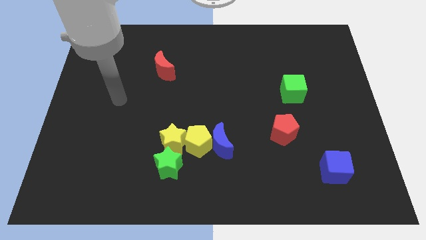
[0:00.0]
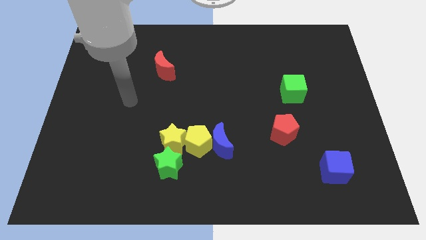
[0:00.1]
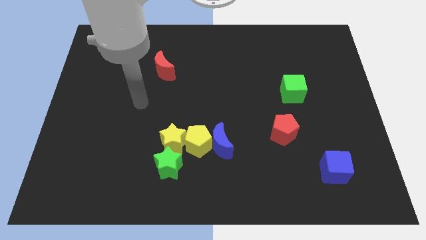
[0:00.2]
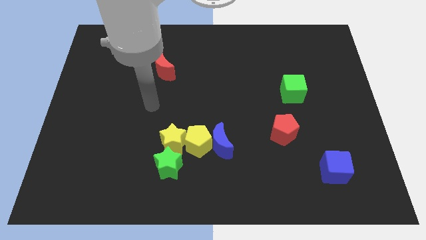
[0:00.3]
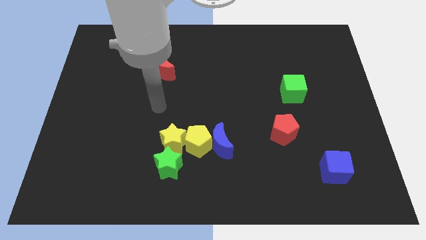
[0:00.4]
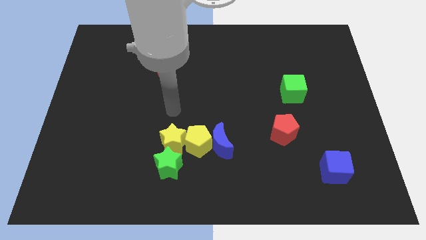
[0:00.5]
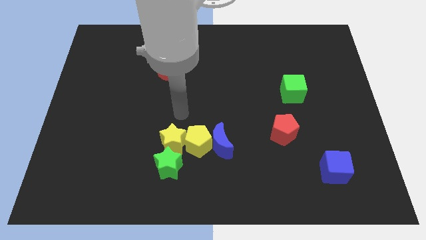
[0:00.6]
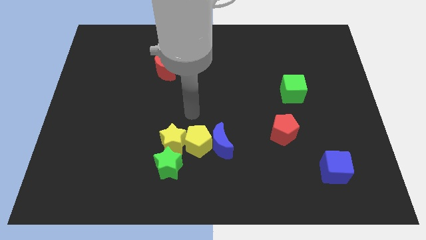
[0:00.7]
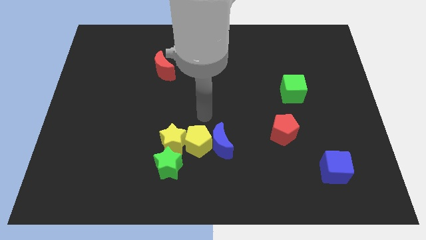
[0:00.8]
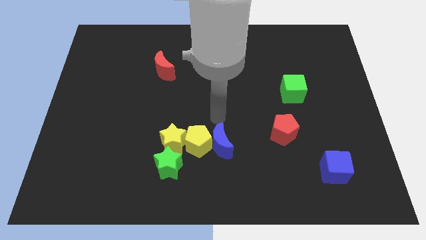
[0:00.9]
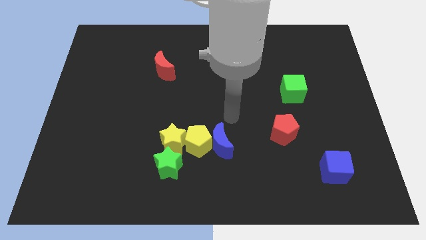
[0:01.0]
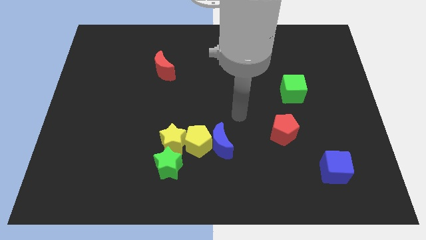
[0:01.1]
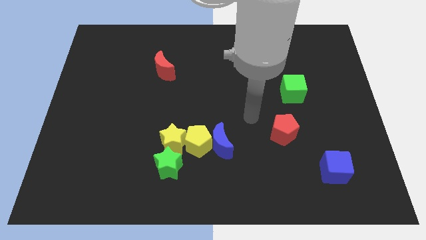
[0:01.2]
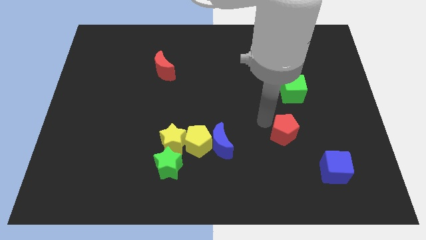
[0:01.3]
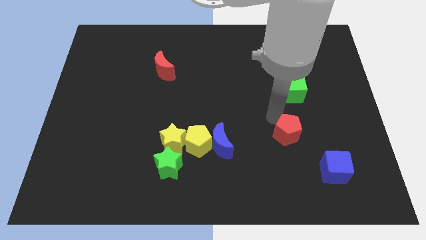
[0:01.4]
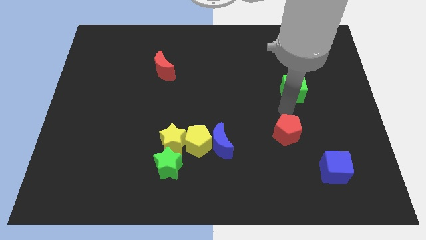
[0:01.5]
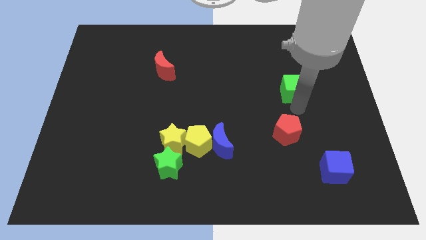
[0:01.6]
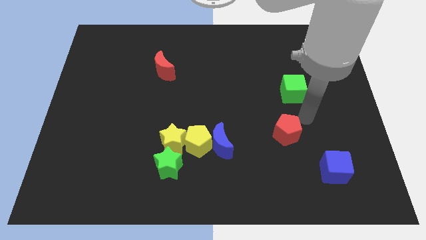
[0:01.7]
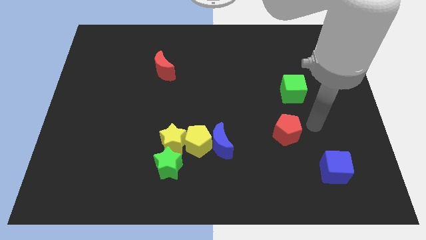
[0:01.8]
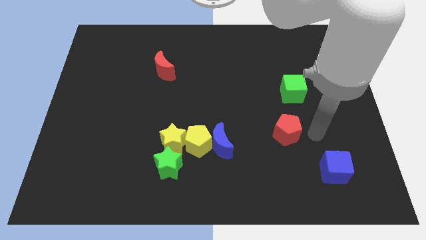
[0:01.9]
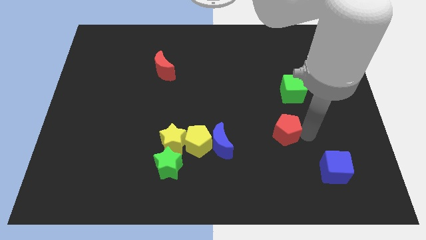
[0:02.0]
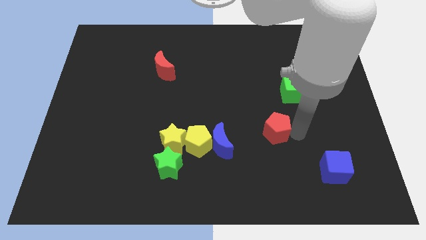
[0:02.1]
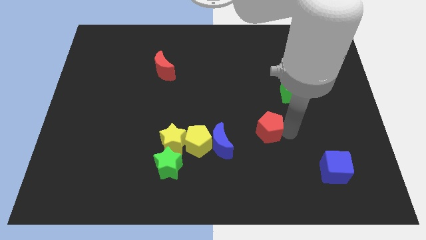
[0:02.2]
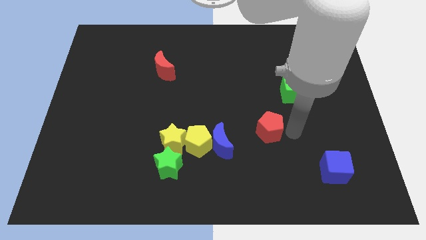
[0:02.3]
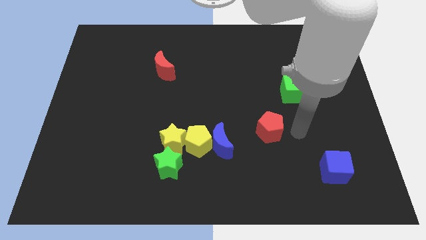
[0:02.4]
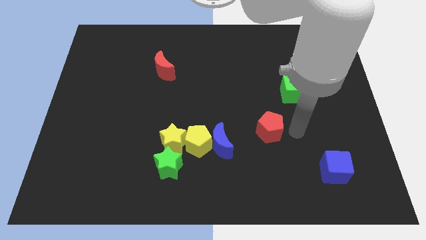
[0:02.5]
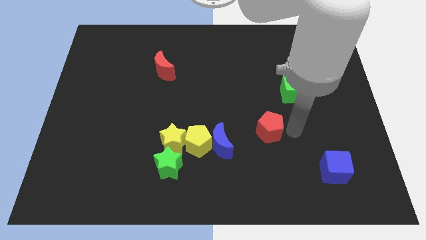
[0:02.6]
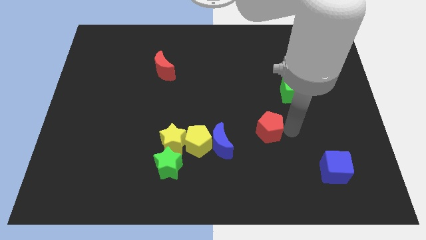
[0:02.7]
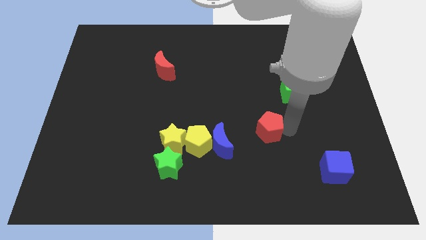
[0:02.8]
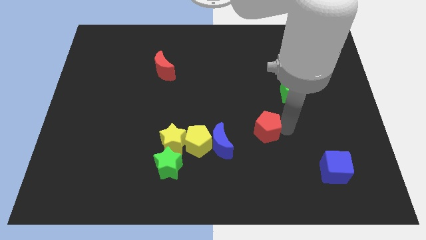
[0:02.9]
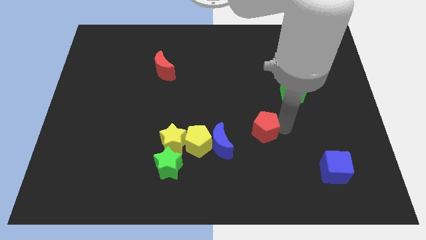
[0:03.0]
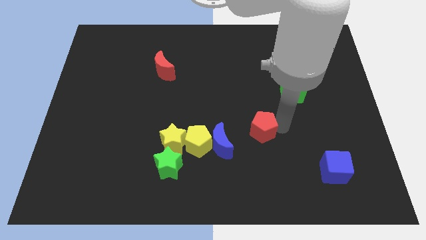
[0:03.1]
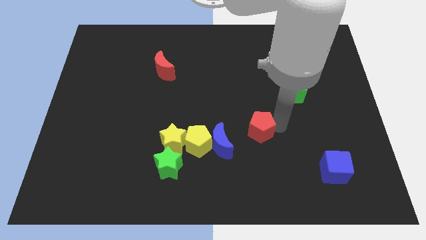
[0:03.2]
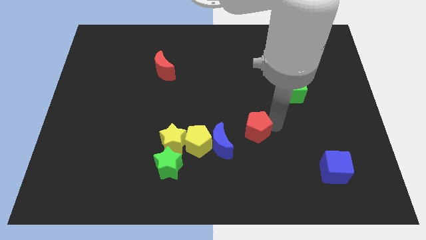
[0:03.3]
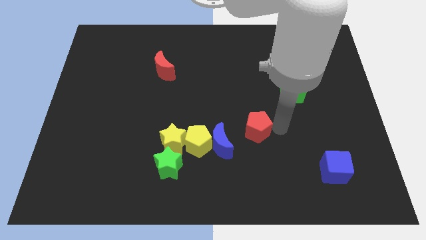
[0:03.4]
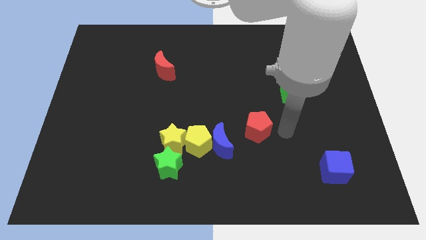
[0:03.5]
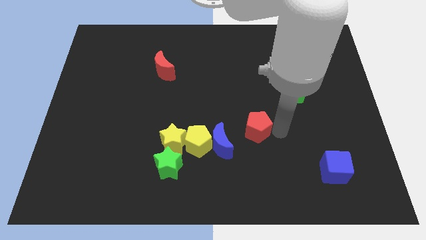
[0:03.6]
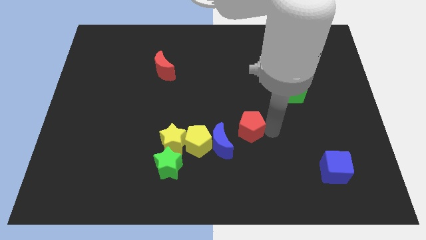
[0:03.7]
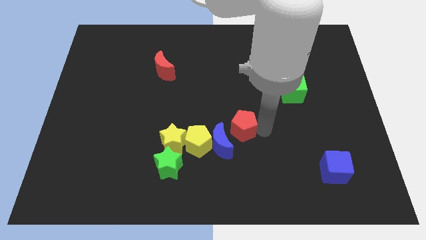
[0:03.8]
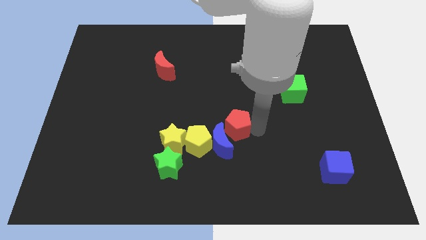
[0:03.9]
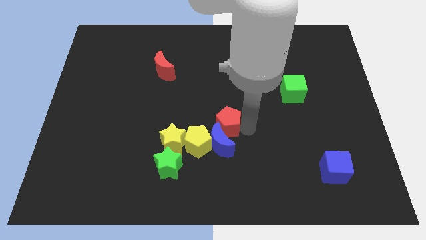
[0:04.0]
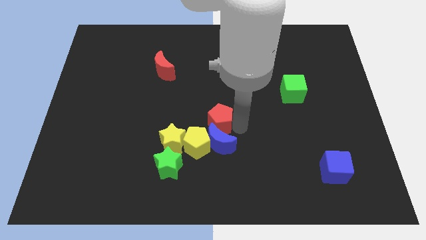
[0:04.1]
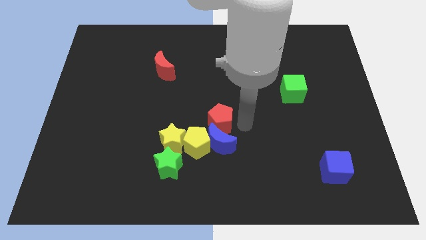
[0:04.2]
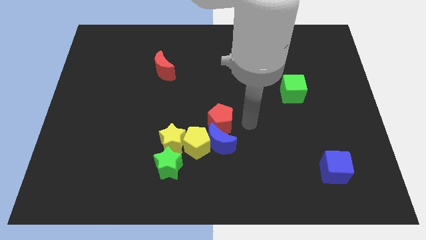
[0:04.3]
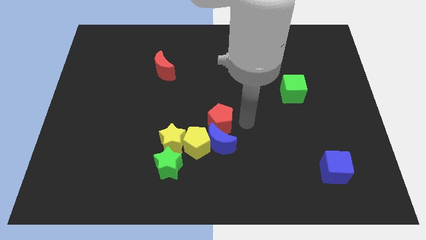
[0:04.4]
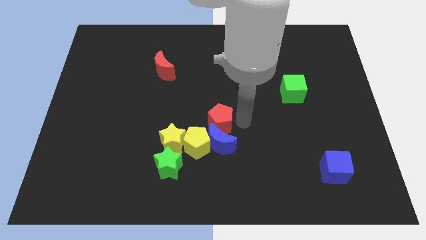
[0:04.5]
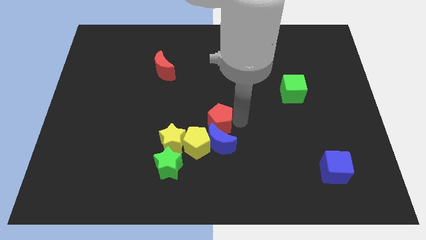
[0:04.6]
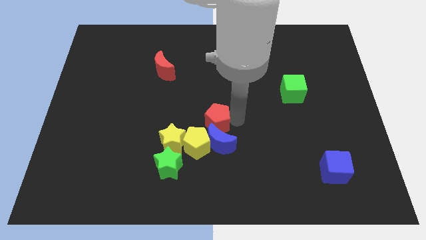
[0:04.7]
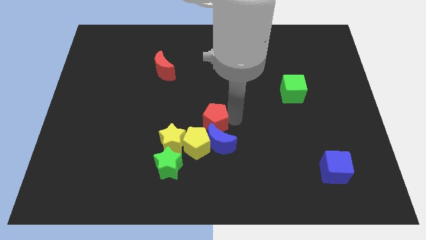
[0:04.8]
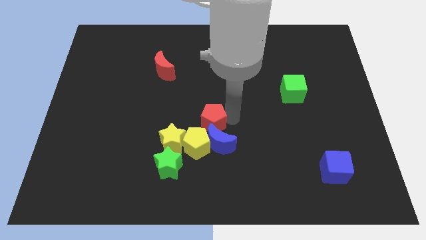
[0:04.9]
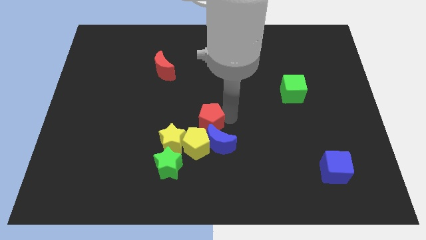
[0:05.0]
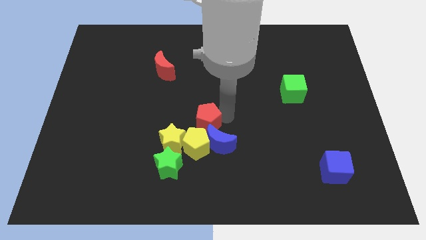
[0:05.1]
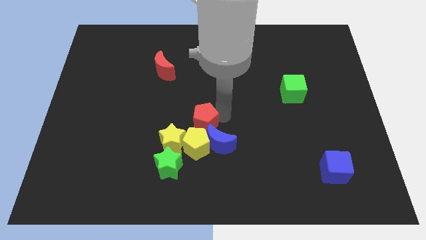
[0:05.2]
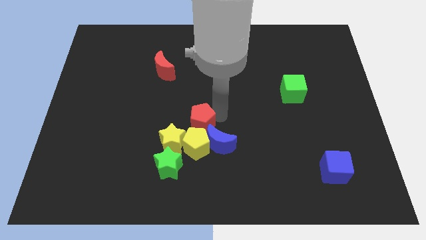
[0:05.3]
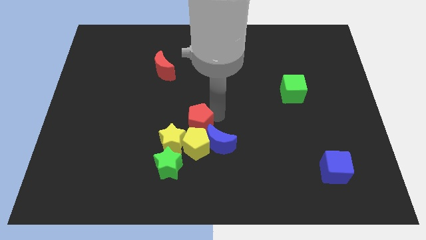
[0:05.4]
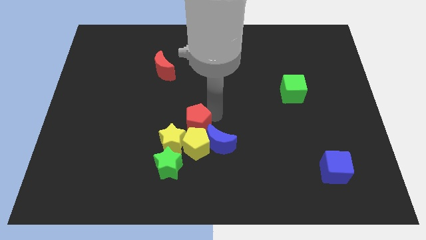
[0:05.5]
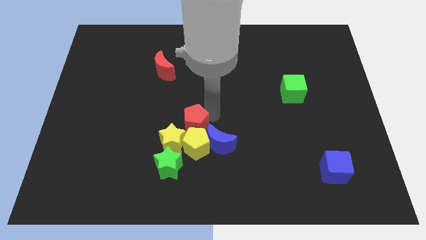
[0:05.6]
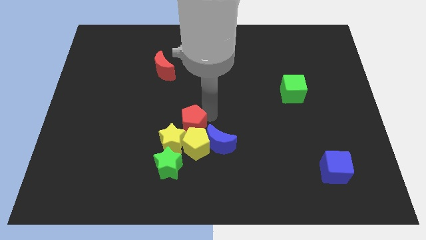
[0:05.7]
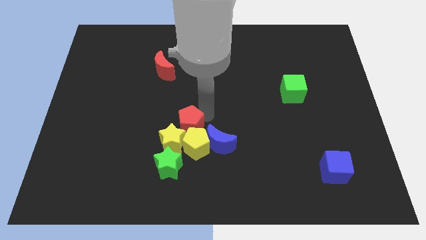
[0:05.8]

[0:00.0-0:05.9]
put the red pentagon close to the yellow star
